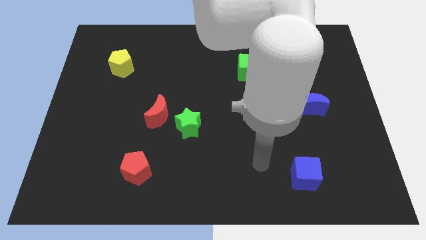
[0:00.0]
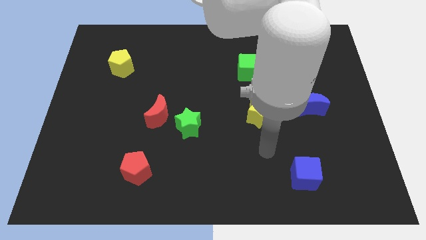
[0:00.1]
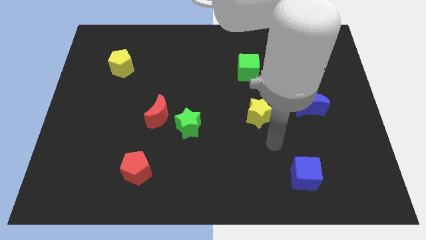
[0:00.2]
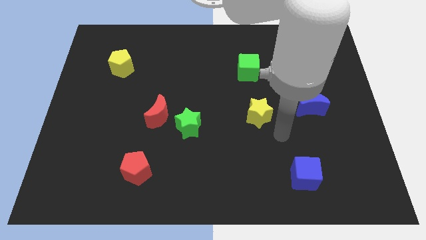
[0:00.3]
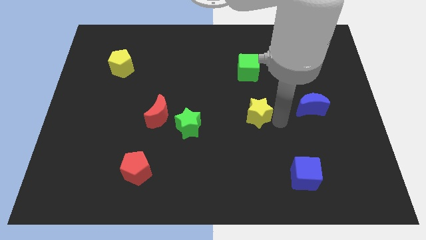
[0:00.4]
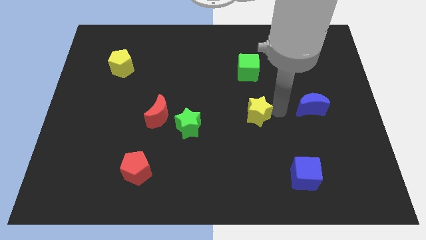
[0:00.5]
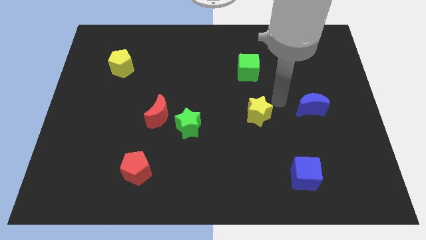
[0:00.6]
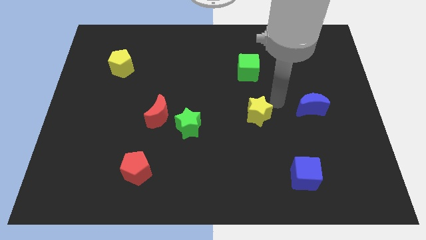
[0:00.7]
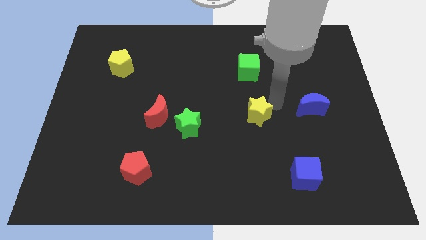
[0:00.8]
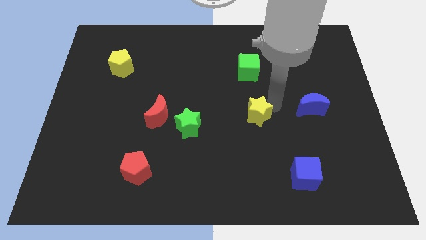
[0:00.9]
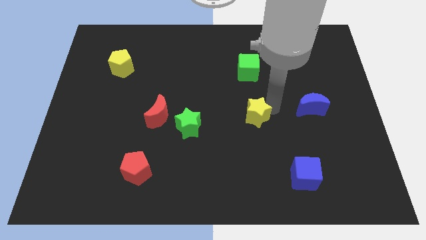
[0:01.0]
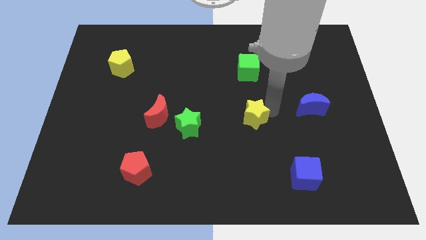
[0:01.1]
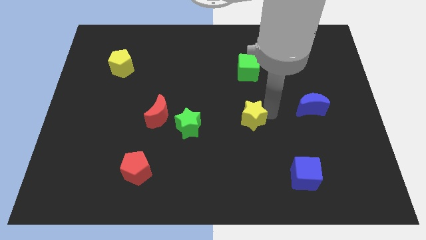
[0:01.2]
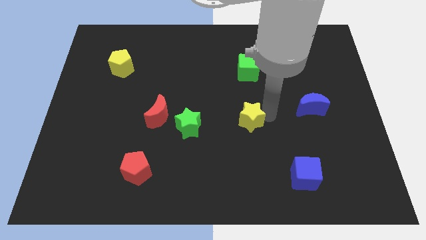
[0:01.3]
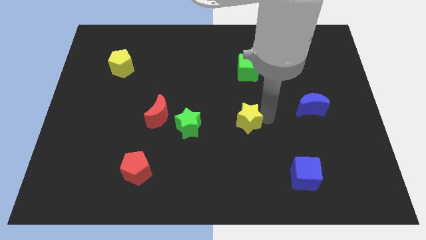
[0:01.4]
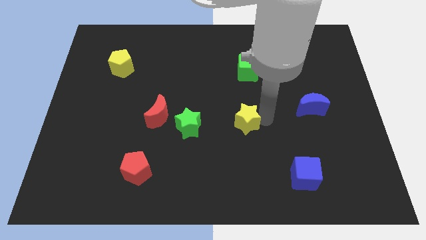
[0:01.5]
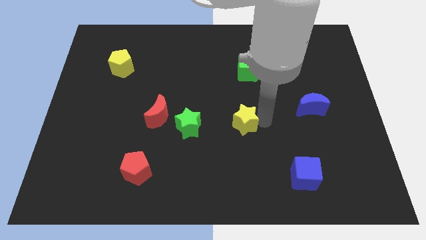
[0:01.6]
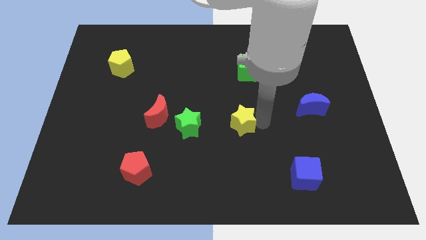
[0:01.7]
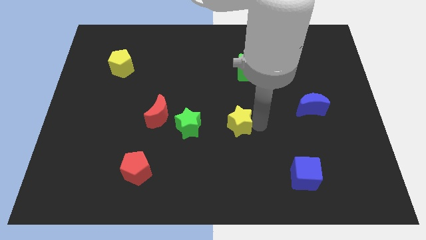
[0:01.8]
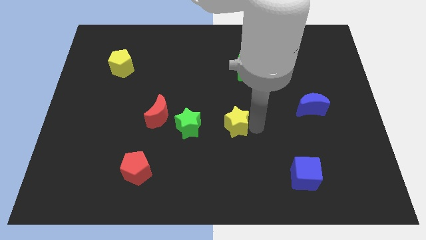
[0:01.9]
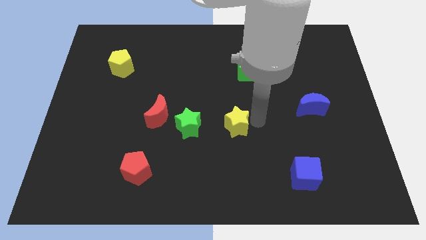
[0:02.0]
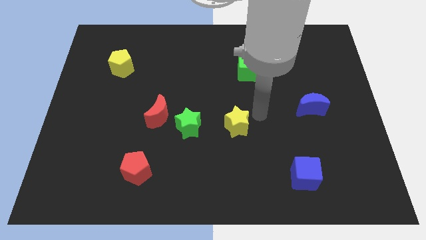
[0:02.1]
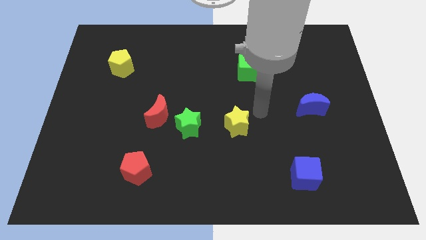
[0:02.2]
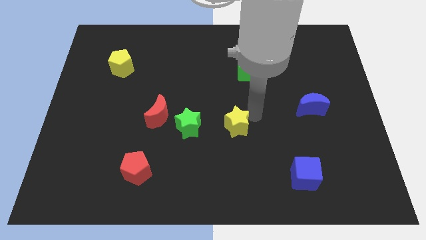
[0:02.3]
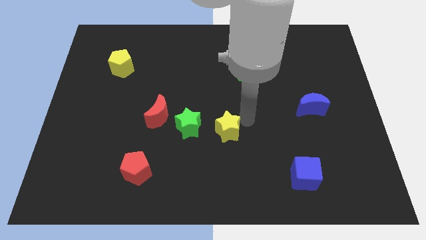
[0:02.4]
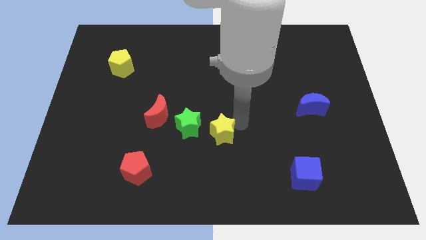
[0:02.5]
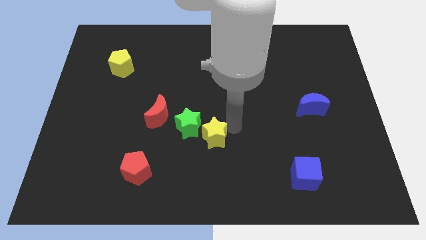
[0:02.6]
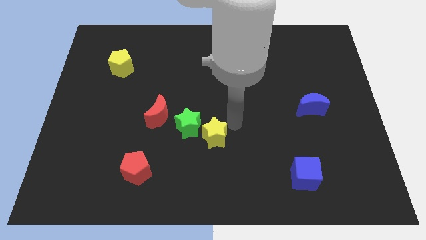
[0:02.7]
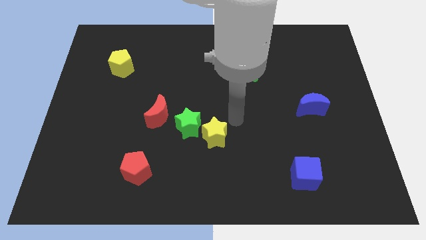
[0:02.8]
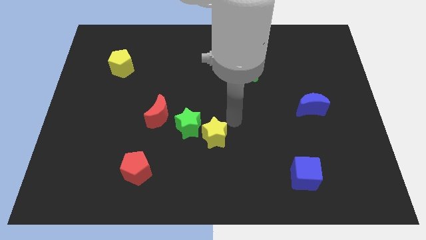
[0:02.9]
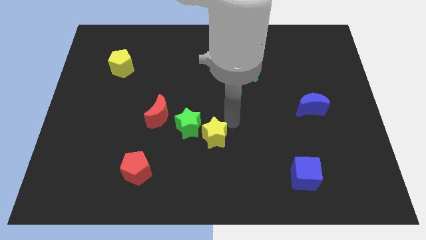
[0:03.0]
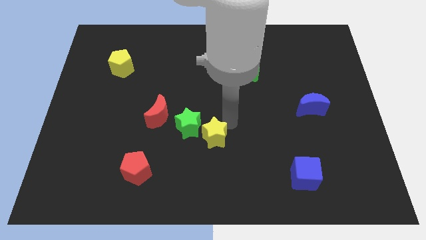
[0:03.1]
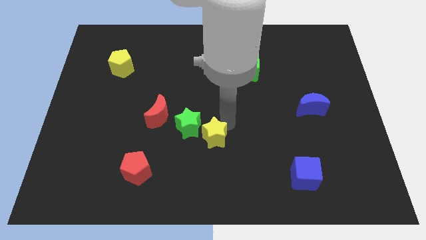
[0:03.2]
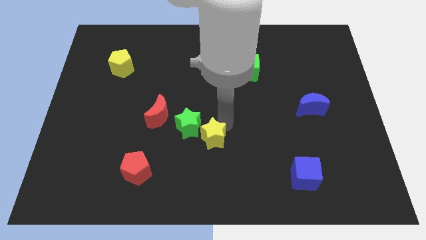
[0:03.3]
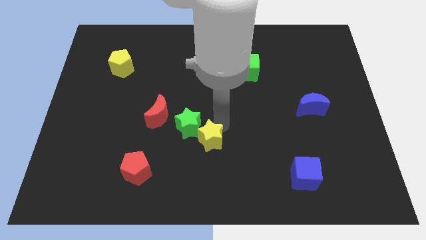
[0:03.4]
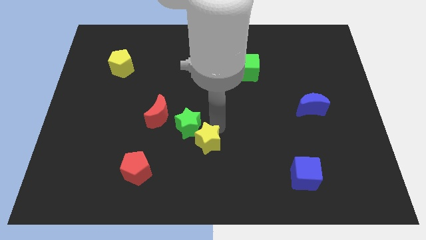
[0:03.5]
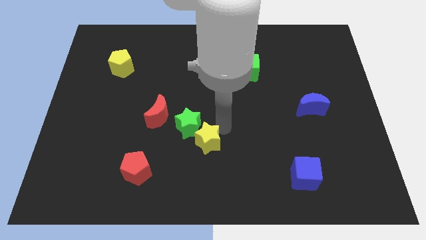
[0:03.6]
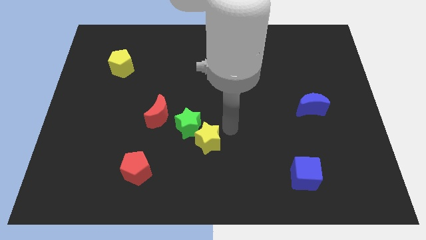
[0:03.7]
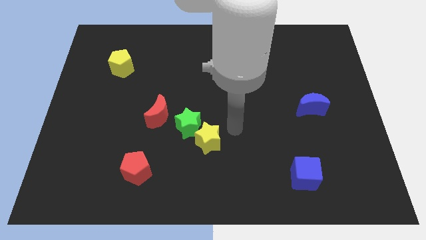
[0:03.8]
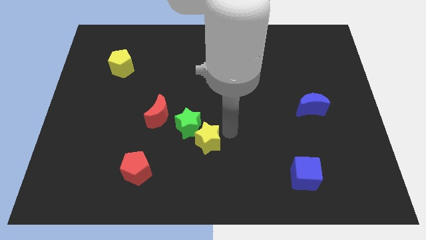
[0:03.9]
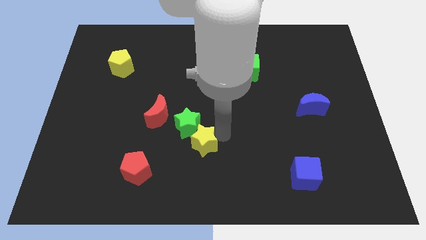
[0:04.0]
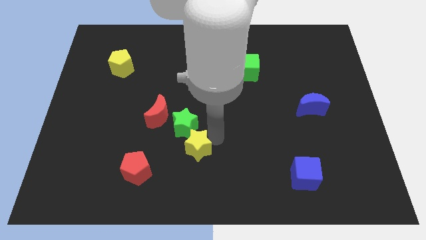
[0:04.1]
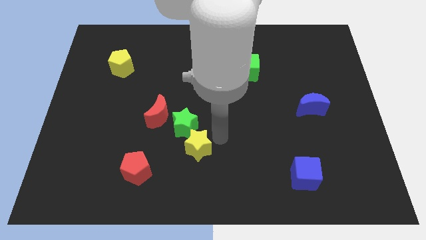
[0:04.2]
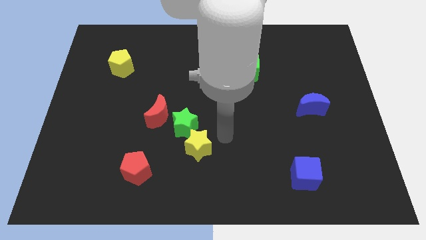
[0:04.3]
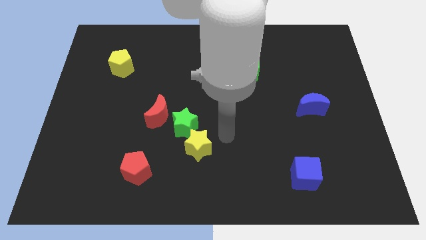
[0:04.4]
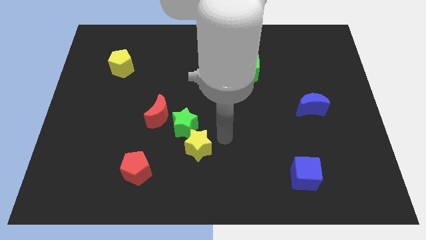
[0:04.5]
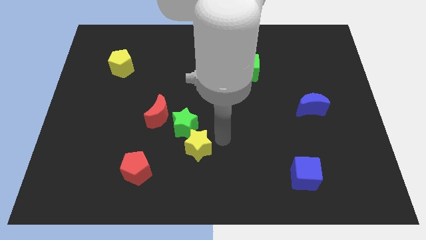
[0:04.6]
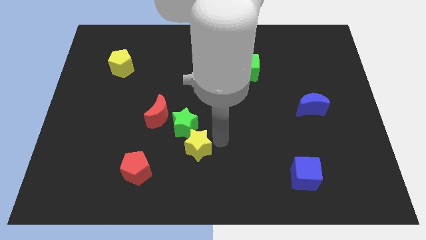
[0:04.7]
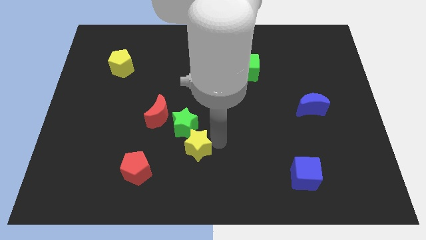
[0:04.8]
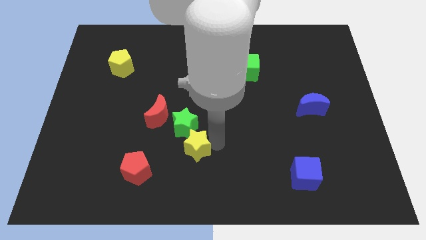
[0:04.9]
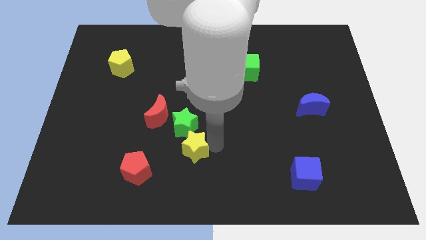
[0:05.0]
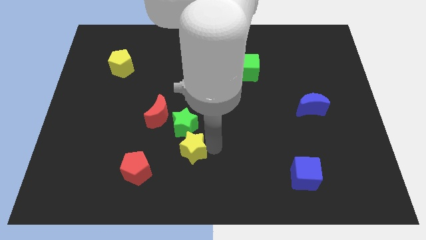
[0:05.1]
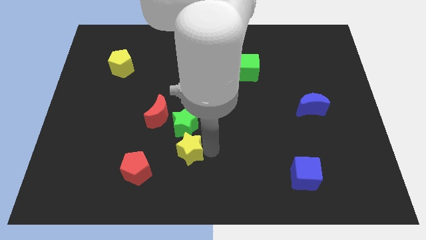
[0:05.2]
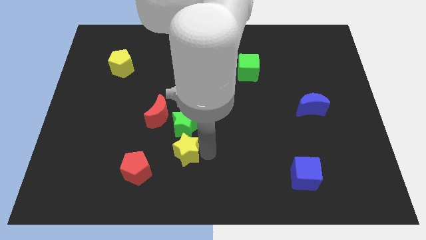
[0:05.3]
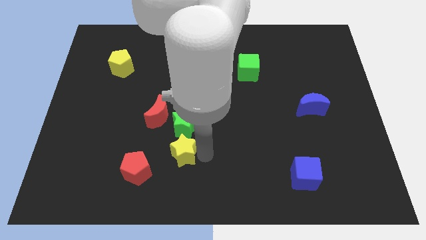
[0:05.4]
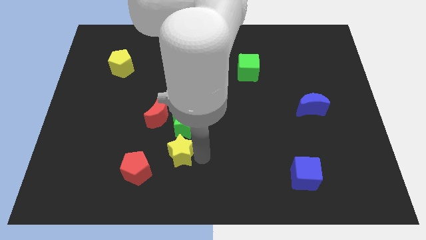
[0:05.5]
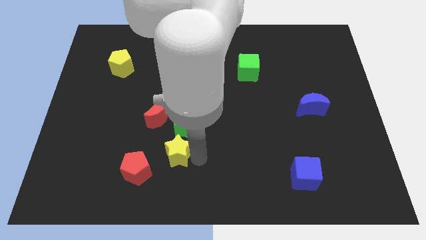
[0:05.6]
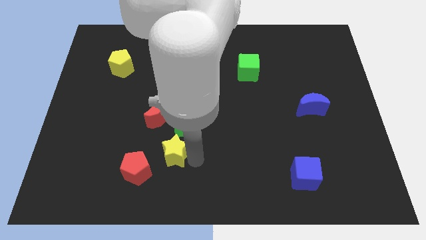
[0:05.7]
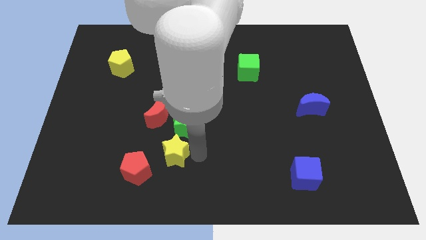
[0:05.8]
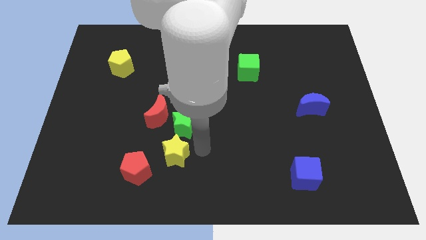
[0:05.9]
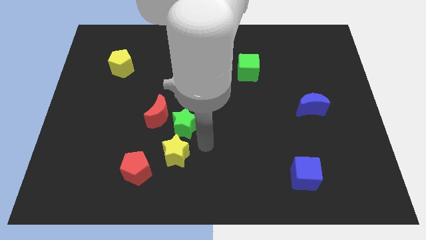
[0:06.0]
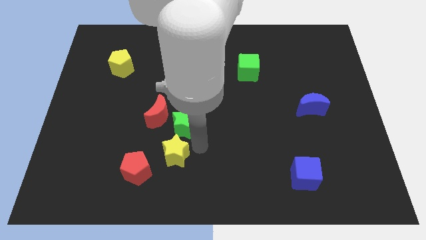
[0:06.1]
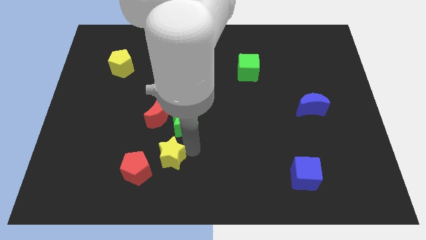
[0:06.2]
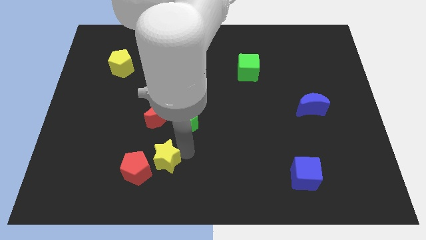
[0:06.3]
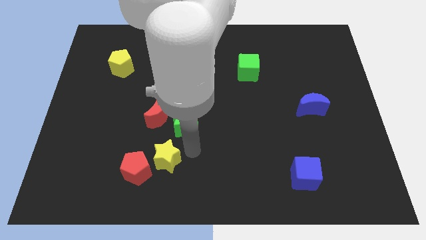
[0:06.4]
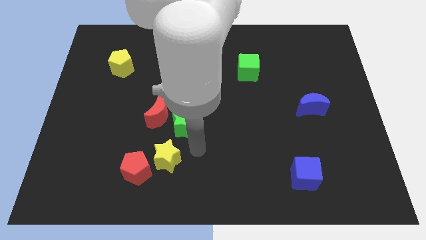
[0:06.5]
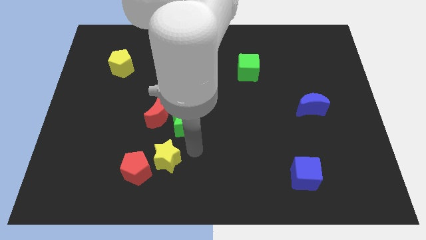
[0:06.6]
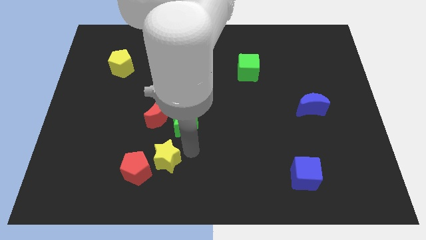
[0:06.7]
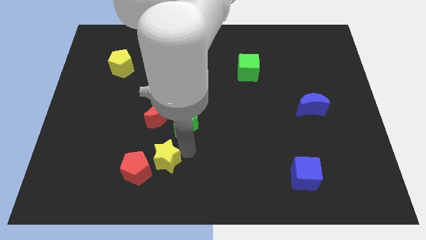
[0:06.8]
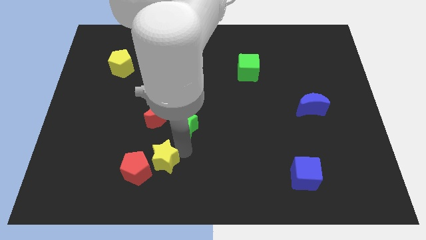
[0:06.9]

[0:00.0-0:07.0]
slide the yellow star towards the red pentagon
